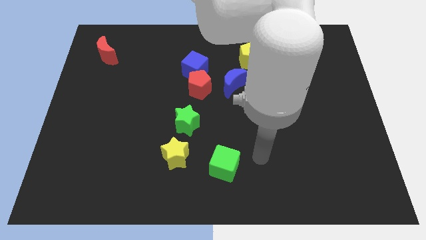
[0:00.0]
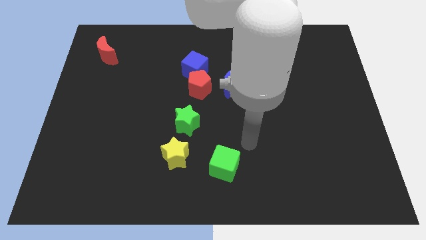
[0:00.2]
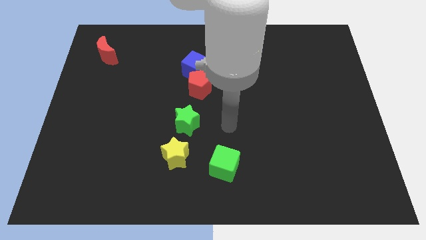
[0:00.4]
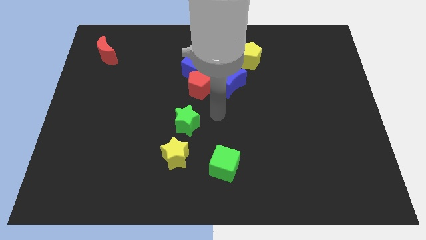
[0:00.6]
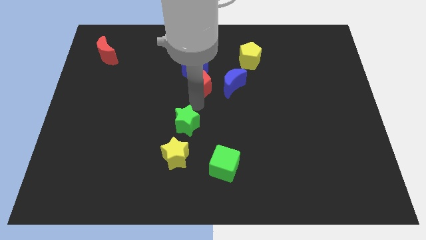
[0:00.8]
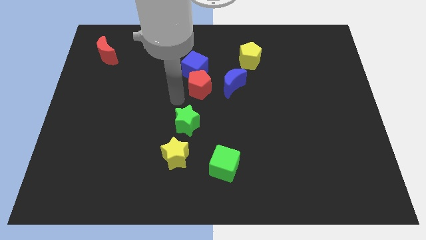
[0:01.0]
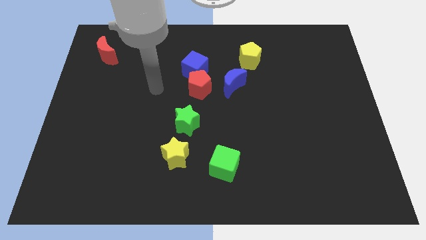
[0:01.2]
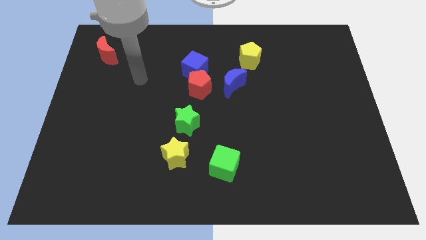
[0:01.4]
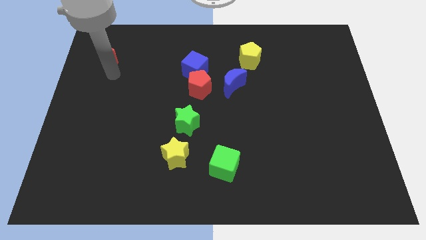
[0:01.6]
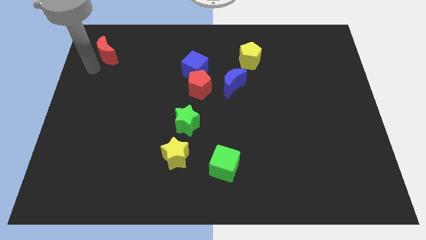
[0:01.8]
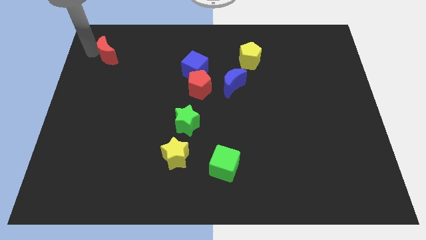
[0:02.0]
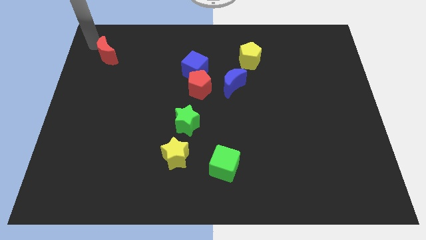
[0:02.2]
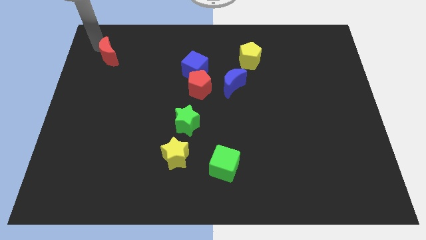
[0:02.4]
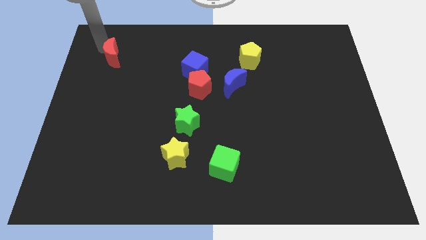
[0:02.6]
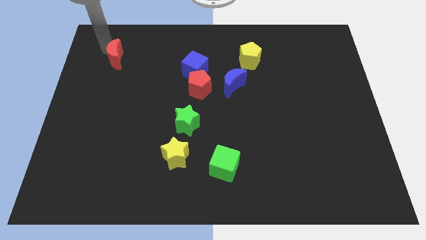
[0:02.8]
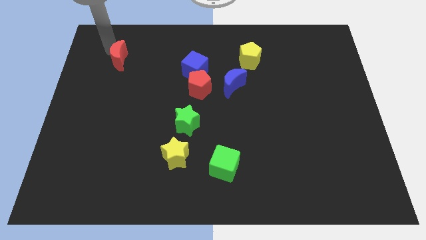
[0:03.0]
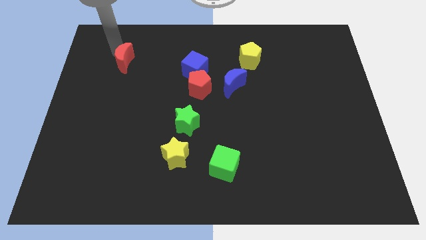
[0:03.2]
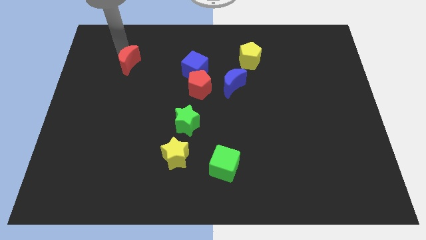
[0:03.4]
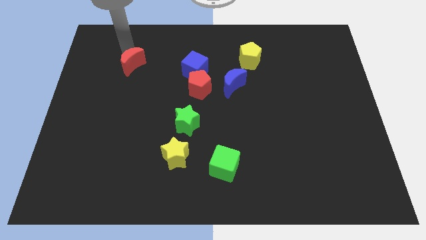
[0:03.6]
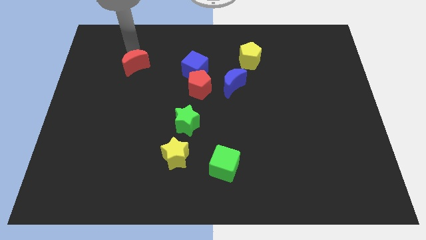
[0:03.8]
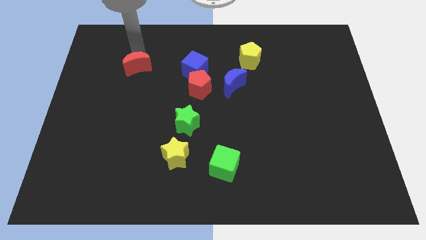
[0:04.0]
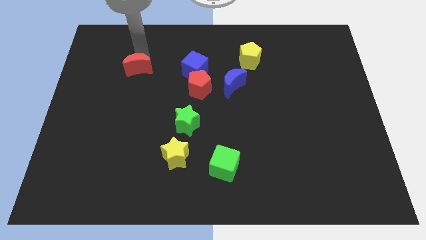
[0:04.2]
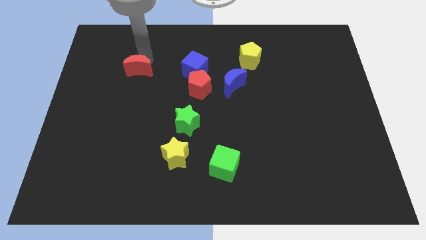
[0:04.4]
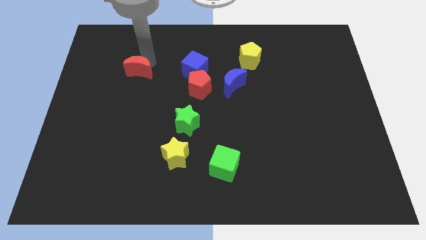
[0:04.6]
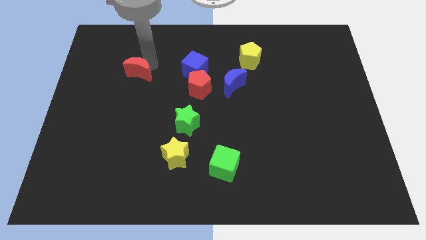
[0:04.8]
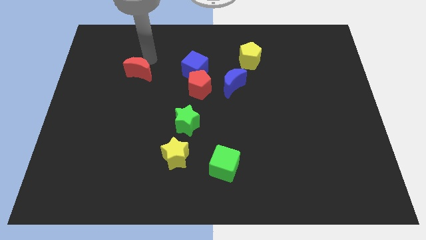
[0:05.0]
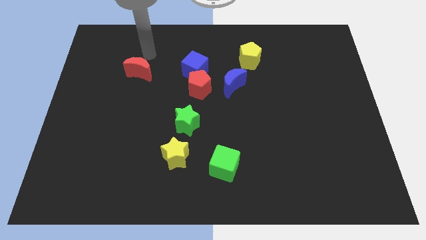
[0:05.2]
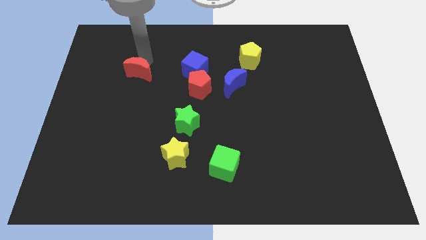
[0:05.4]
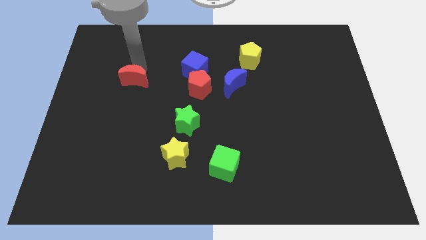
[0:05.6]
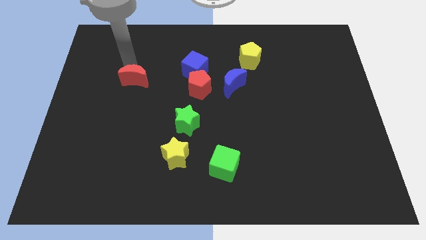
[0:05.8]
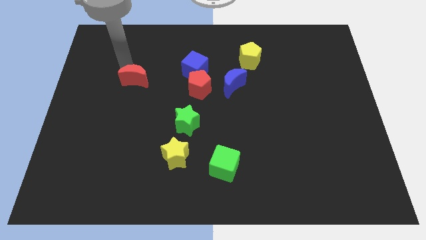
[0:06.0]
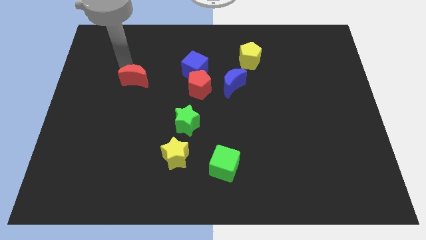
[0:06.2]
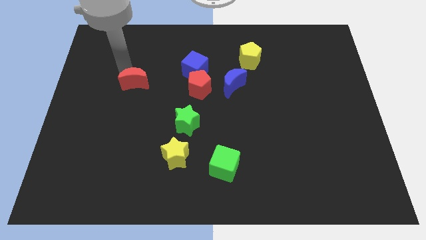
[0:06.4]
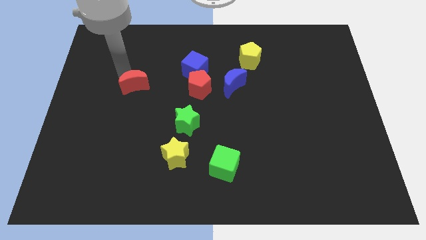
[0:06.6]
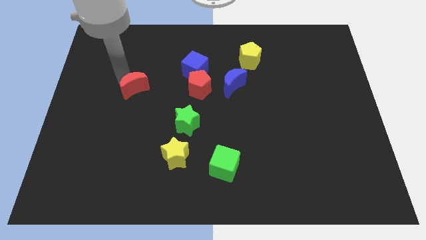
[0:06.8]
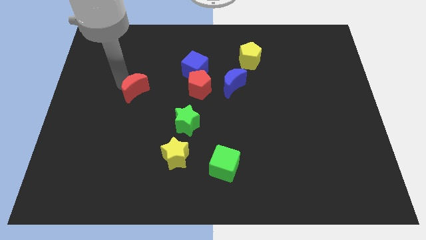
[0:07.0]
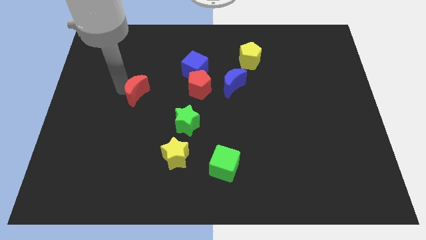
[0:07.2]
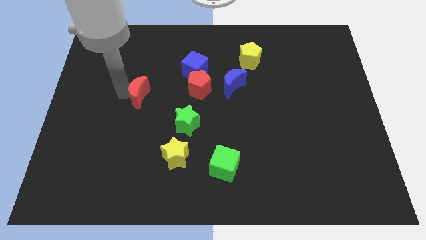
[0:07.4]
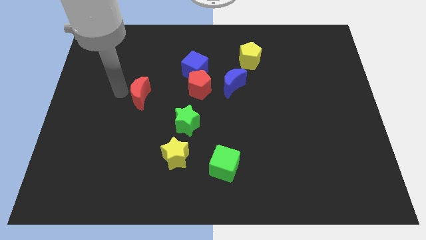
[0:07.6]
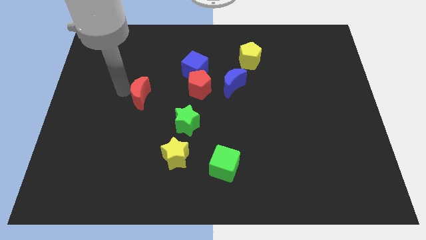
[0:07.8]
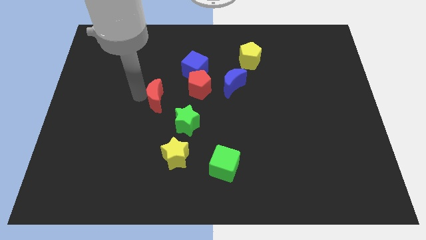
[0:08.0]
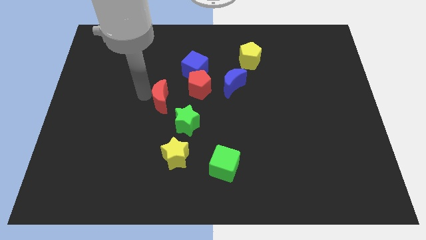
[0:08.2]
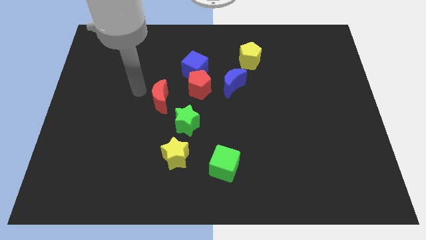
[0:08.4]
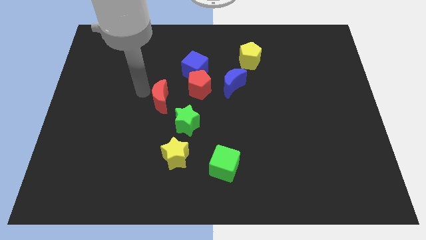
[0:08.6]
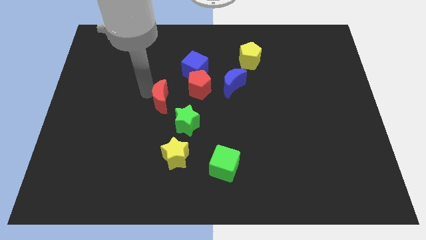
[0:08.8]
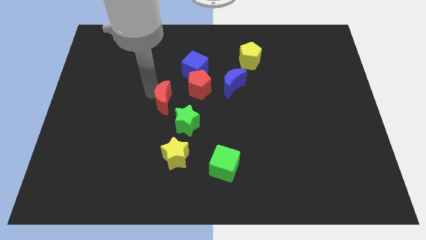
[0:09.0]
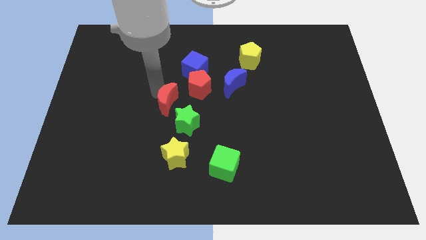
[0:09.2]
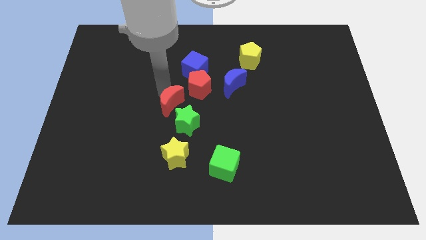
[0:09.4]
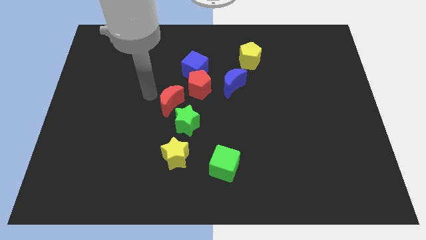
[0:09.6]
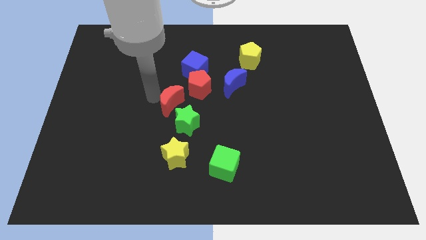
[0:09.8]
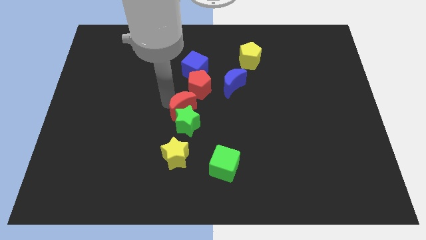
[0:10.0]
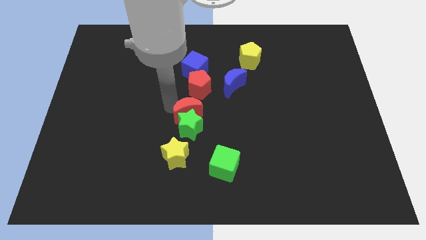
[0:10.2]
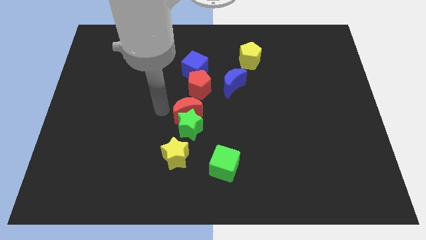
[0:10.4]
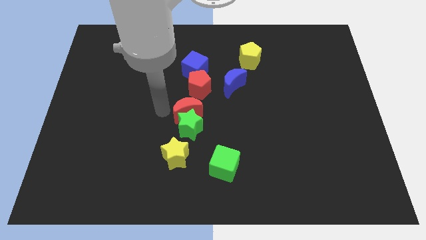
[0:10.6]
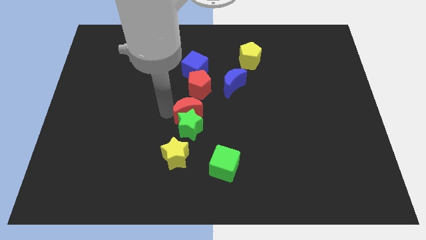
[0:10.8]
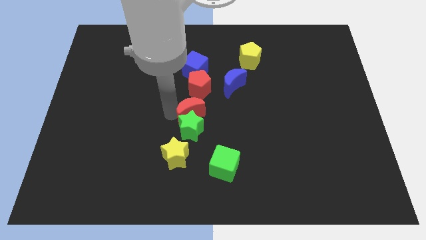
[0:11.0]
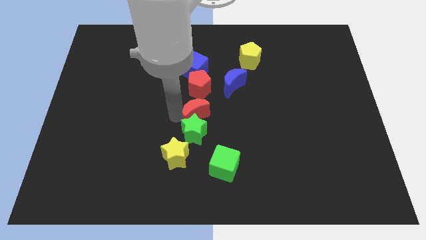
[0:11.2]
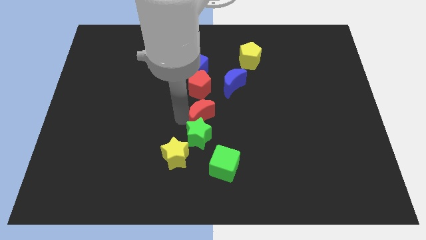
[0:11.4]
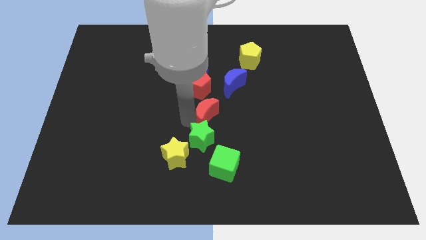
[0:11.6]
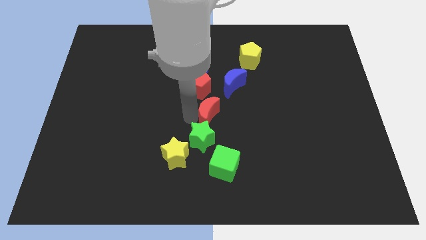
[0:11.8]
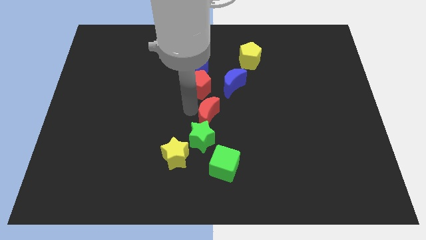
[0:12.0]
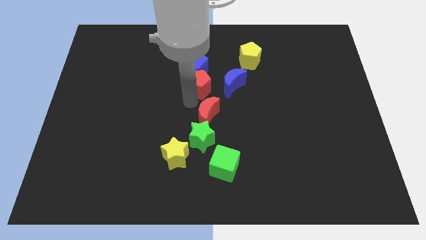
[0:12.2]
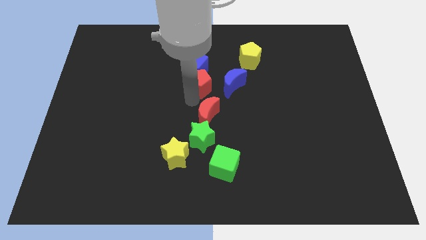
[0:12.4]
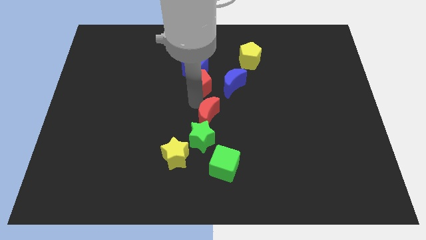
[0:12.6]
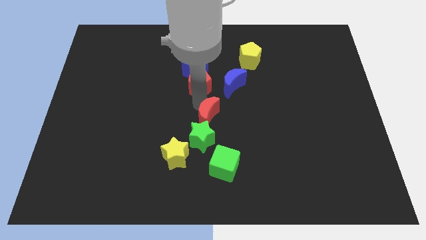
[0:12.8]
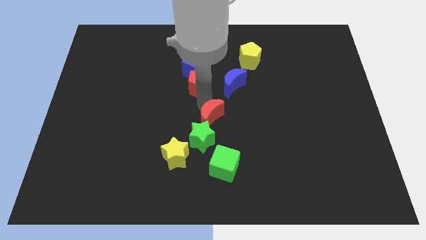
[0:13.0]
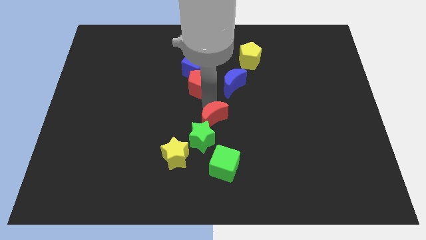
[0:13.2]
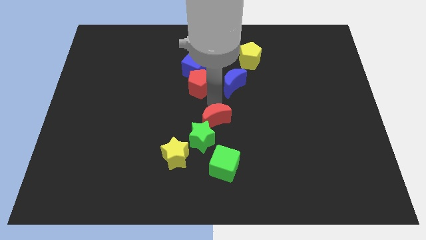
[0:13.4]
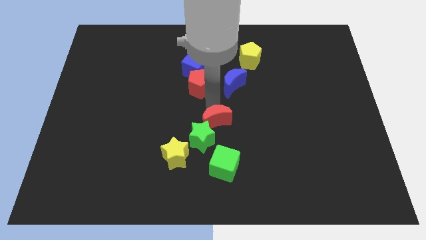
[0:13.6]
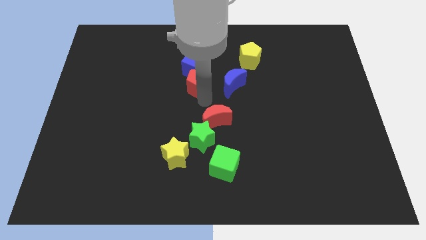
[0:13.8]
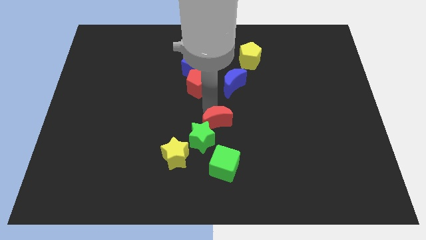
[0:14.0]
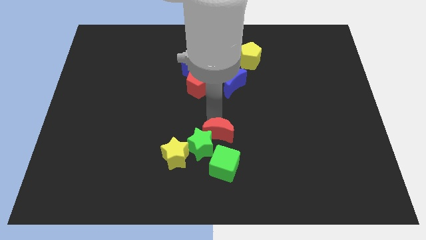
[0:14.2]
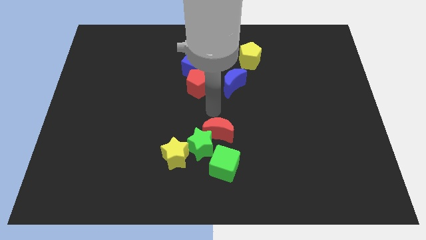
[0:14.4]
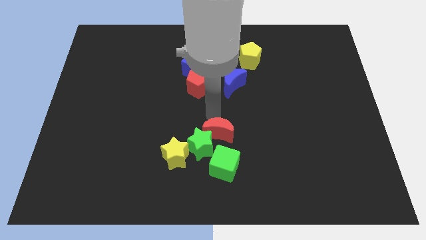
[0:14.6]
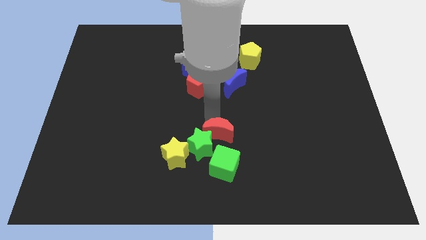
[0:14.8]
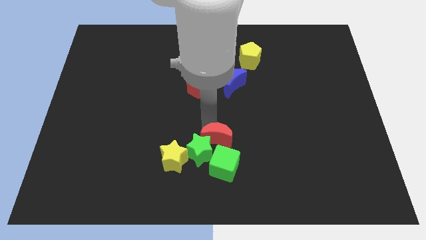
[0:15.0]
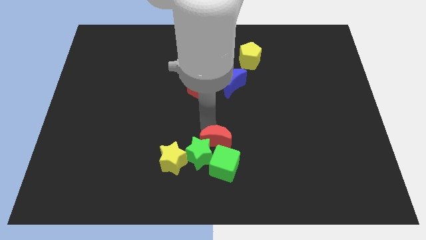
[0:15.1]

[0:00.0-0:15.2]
move the red moon just right of the yellow star

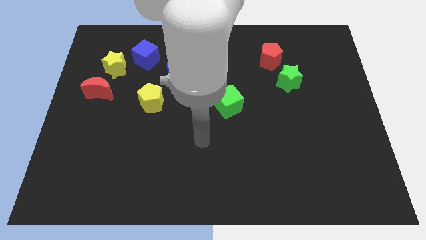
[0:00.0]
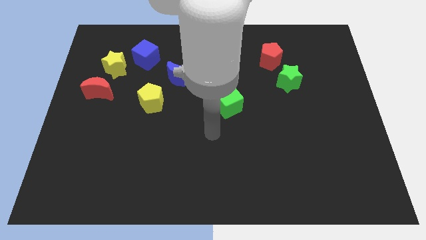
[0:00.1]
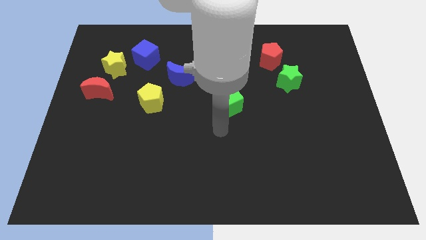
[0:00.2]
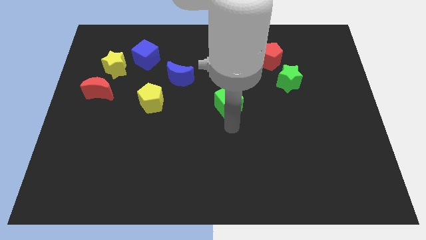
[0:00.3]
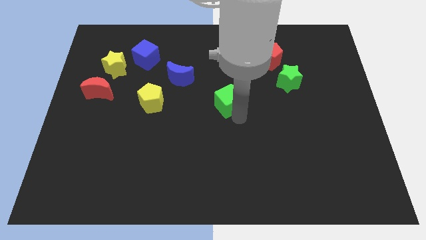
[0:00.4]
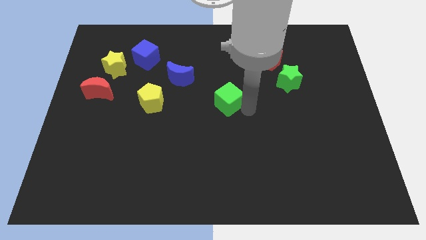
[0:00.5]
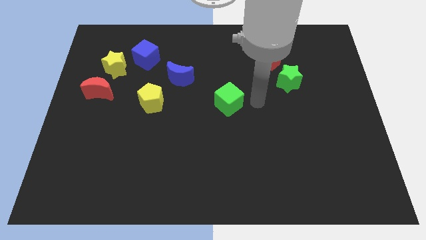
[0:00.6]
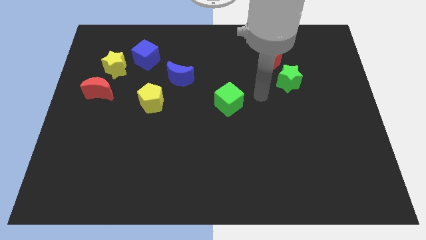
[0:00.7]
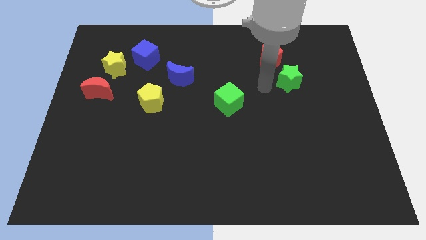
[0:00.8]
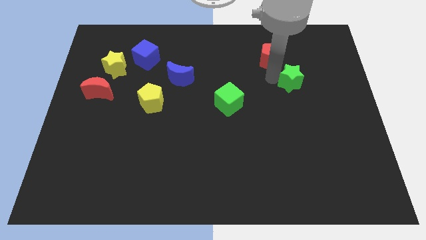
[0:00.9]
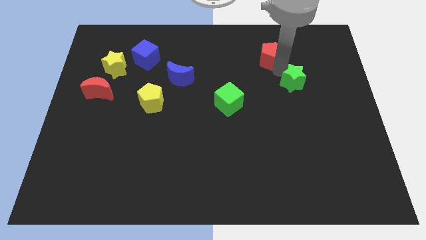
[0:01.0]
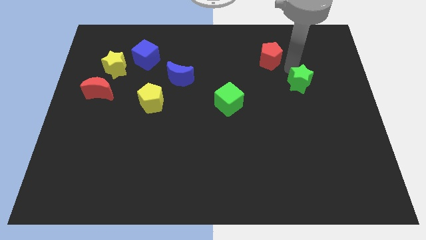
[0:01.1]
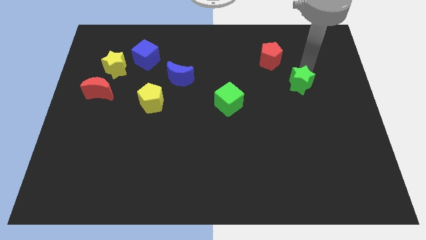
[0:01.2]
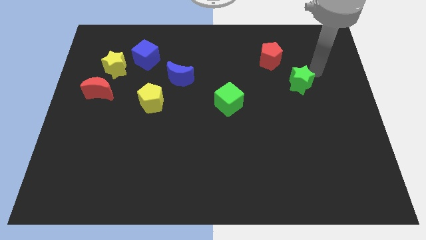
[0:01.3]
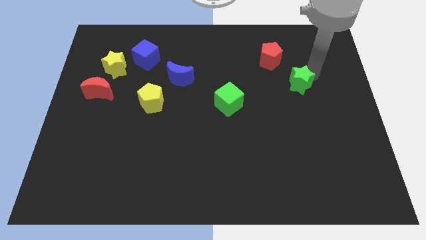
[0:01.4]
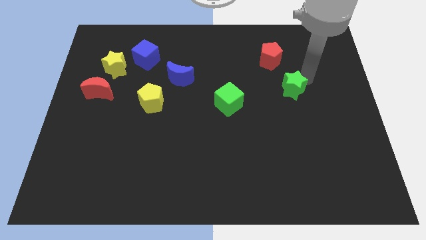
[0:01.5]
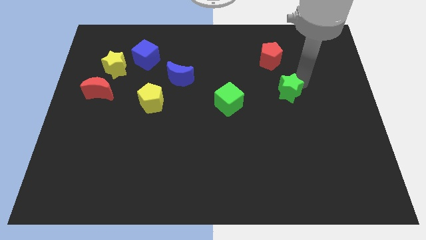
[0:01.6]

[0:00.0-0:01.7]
push the green star just right of the green cube
